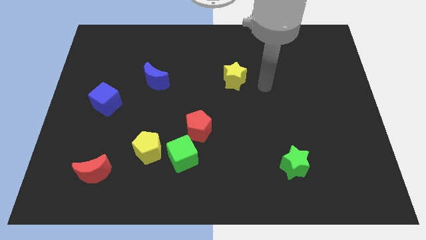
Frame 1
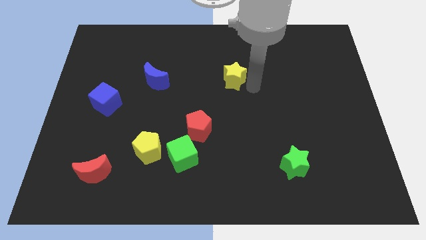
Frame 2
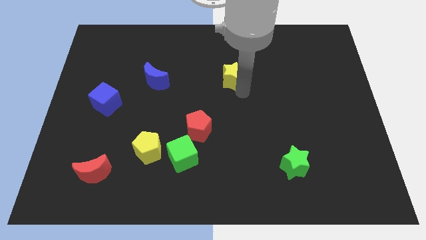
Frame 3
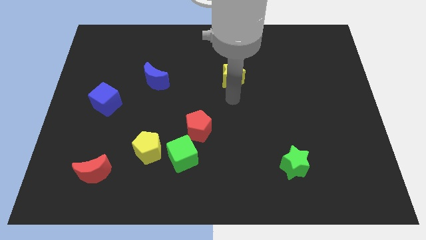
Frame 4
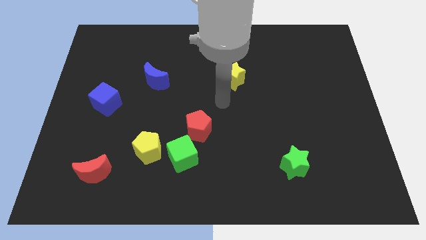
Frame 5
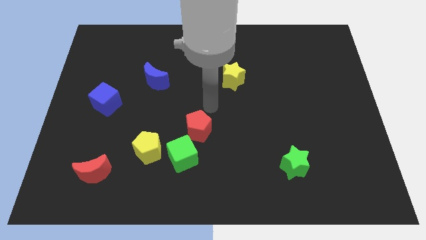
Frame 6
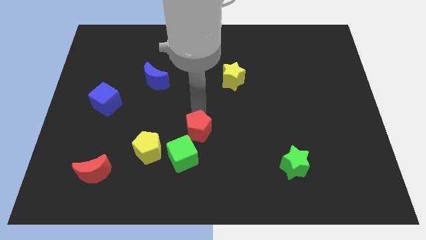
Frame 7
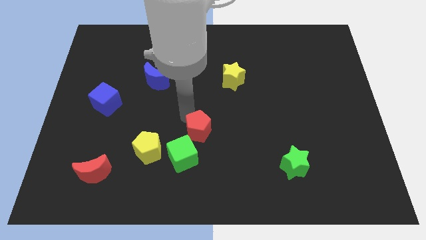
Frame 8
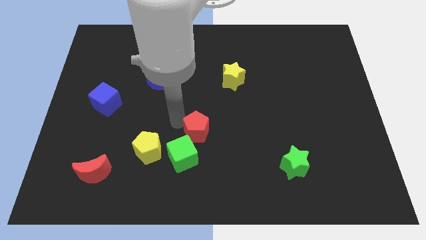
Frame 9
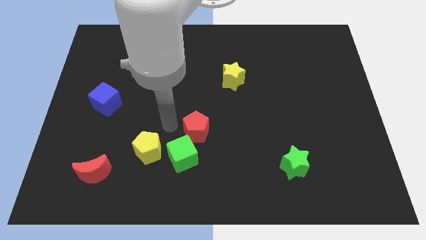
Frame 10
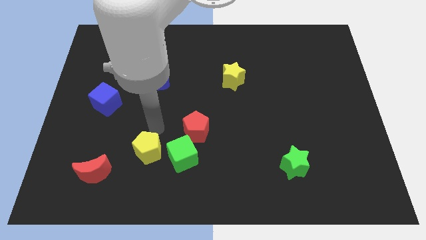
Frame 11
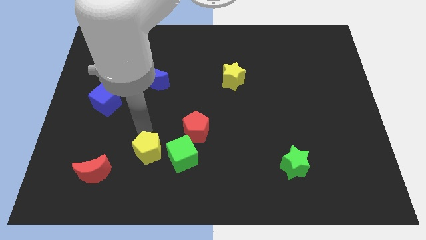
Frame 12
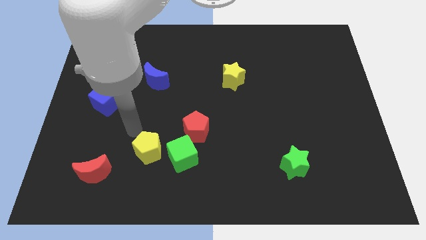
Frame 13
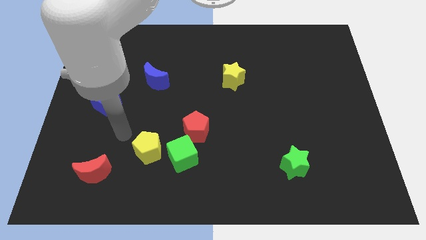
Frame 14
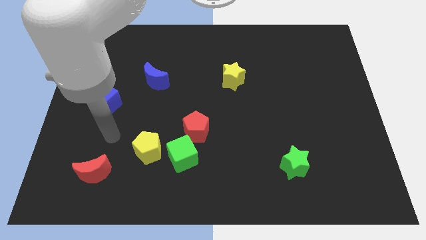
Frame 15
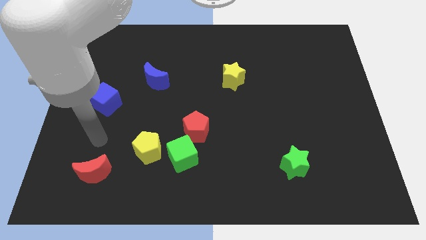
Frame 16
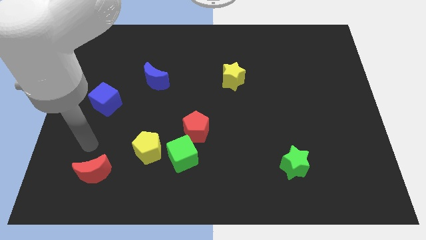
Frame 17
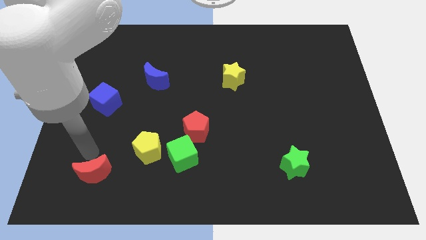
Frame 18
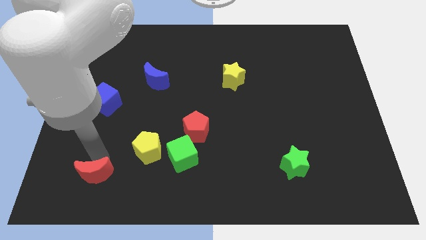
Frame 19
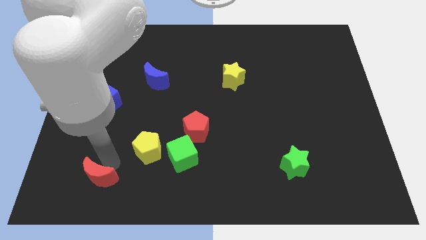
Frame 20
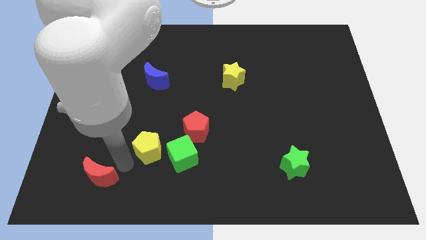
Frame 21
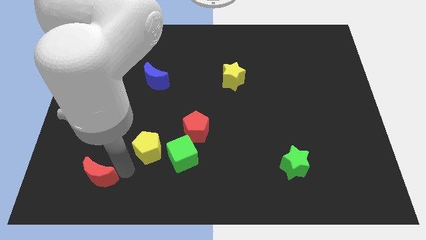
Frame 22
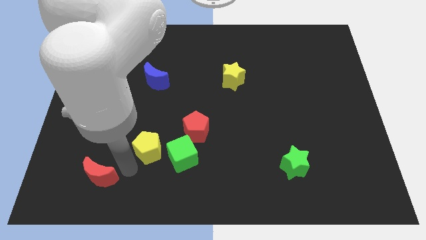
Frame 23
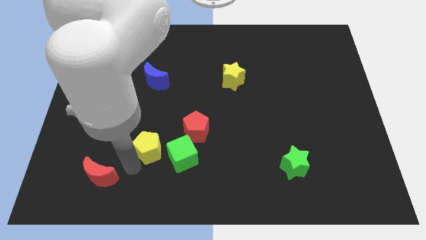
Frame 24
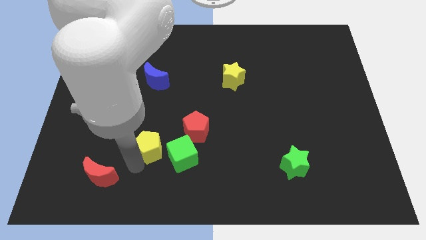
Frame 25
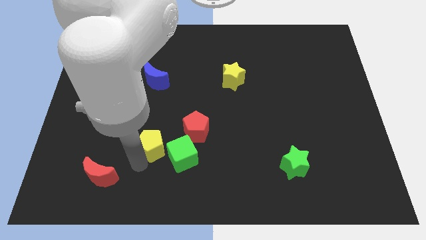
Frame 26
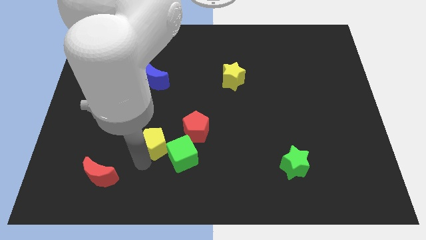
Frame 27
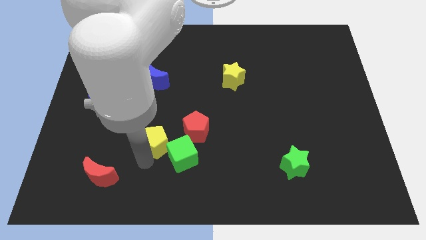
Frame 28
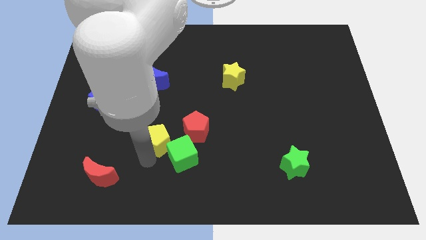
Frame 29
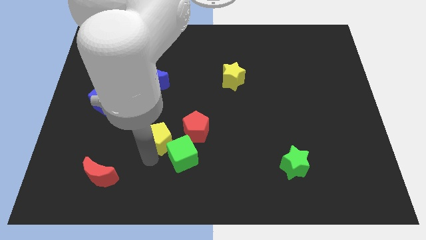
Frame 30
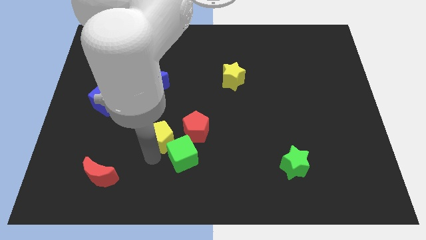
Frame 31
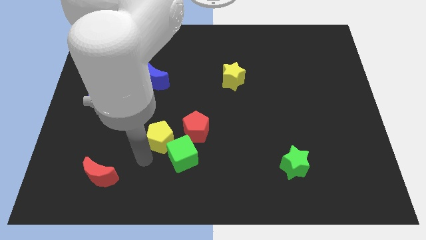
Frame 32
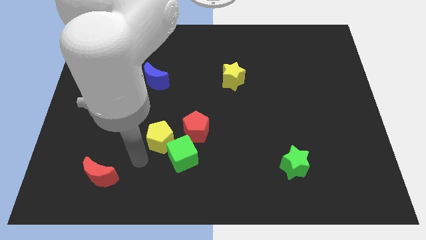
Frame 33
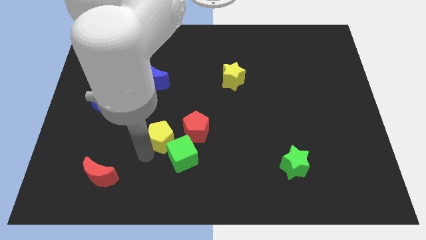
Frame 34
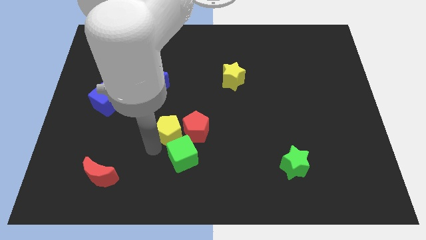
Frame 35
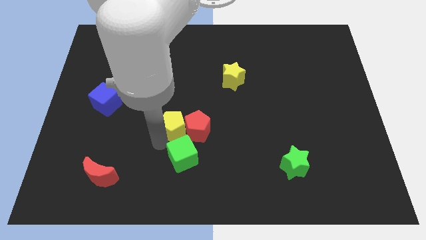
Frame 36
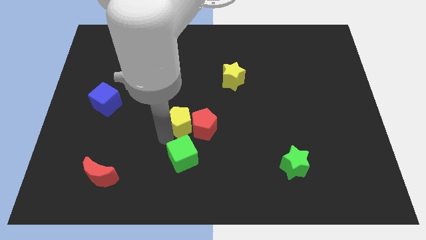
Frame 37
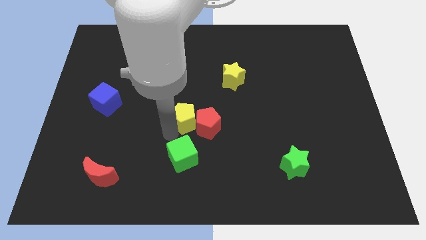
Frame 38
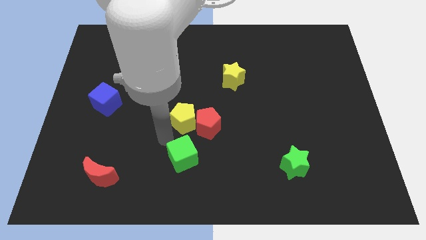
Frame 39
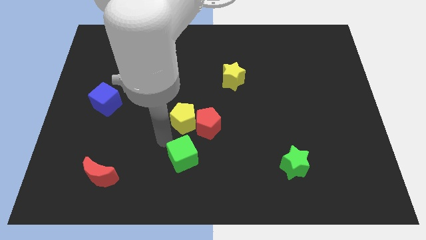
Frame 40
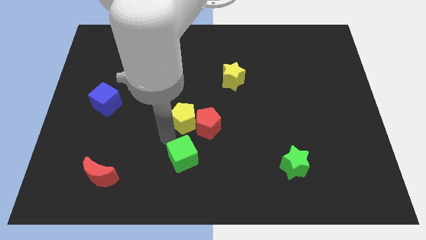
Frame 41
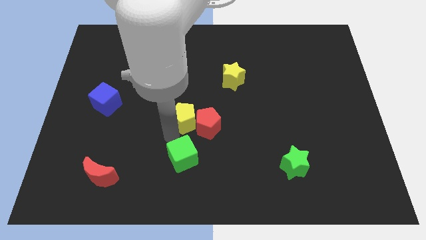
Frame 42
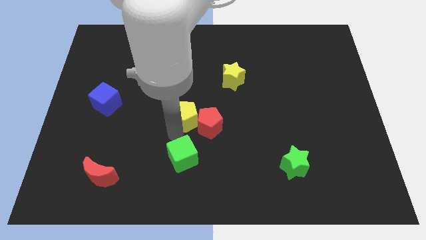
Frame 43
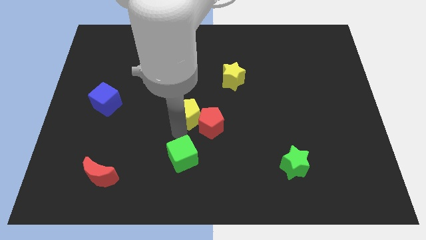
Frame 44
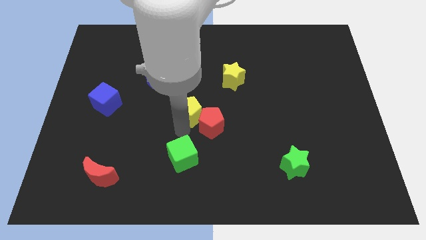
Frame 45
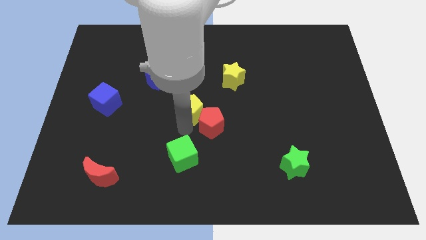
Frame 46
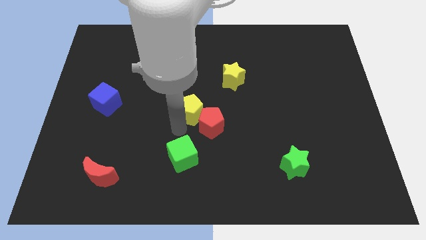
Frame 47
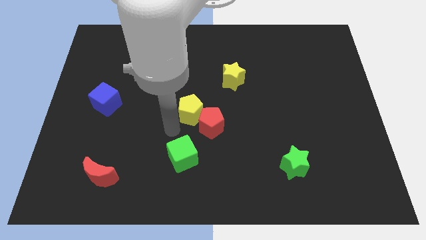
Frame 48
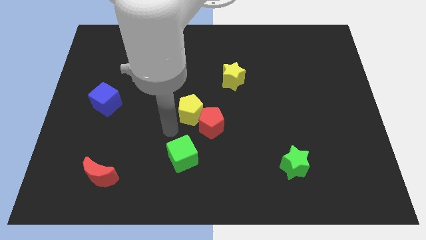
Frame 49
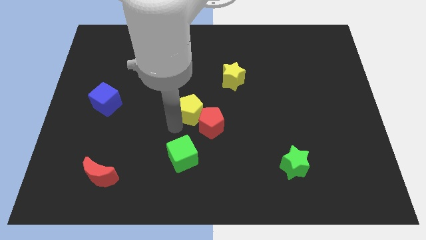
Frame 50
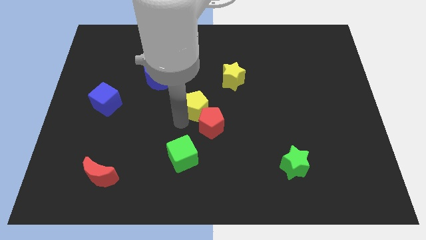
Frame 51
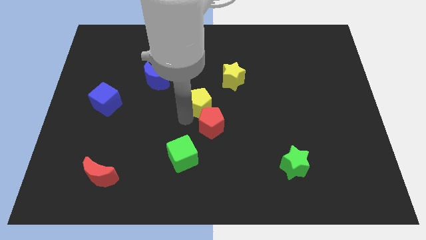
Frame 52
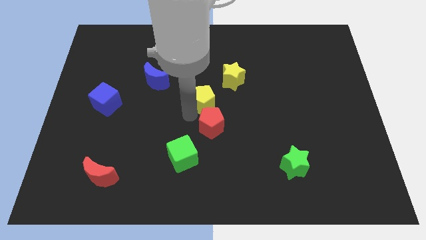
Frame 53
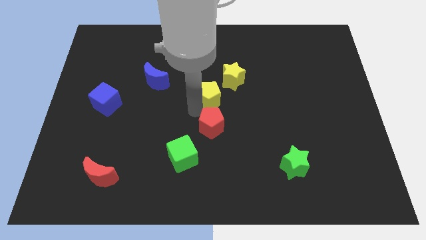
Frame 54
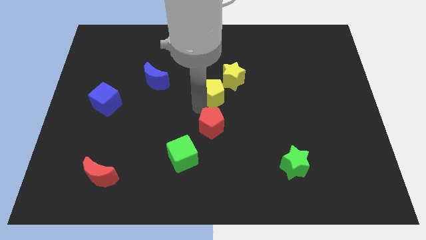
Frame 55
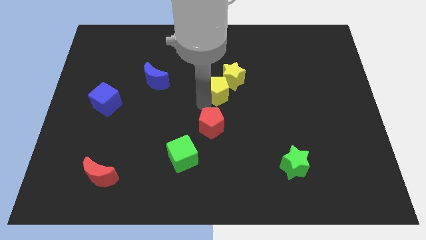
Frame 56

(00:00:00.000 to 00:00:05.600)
move the yellow pentagon towards the yellow star

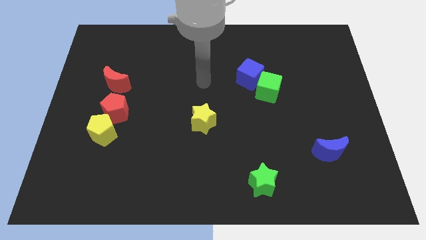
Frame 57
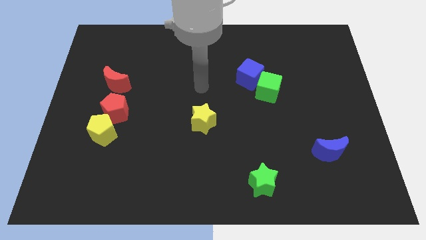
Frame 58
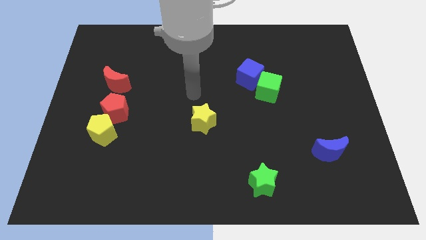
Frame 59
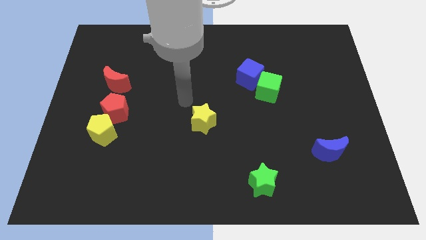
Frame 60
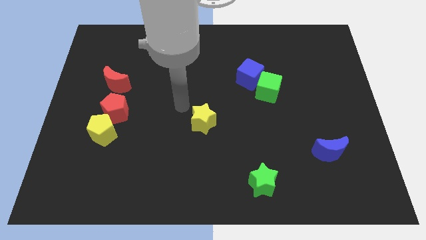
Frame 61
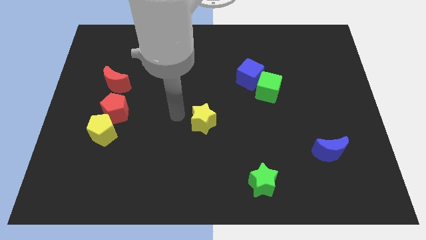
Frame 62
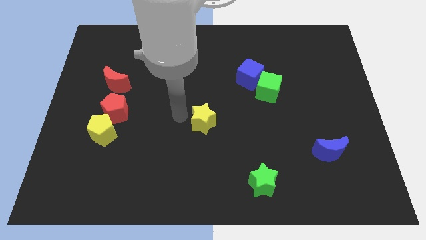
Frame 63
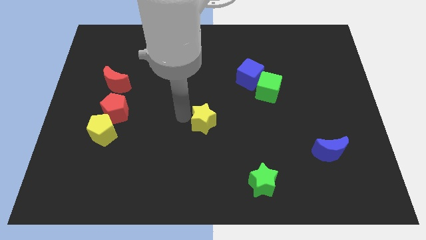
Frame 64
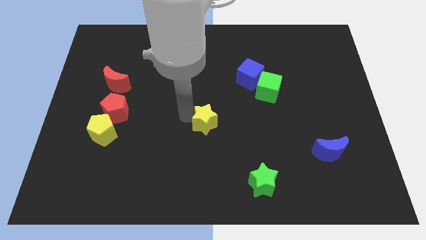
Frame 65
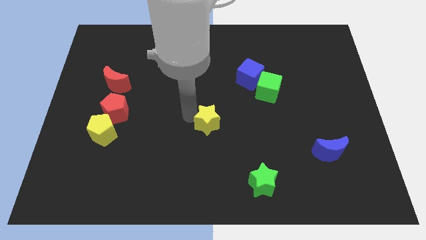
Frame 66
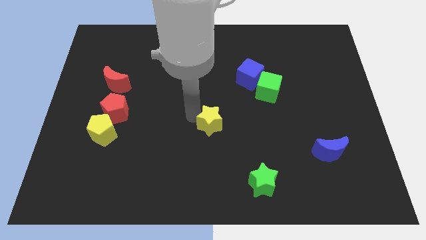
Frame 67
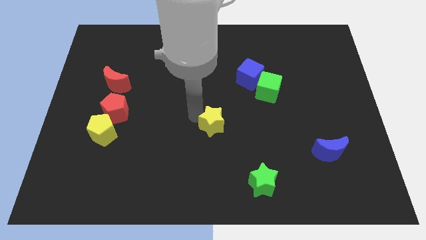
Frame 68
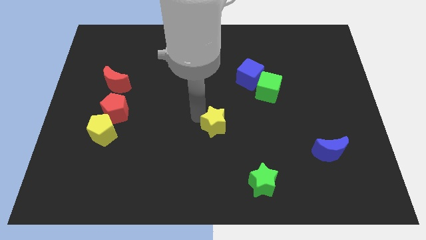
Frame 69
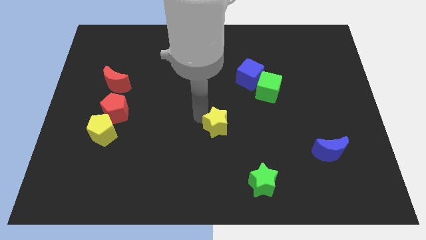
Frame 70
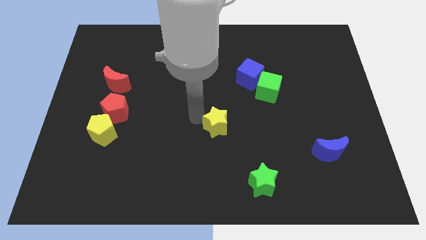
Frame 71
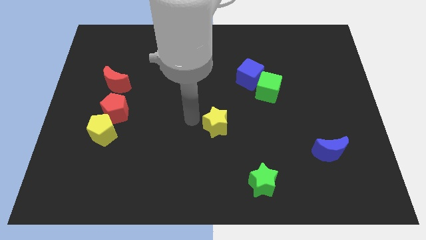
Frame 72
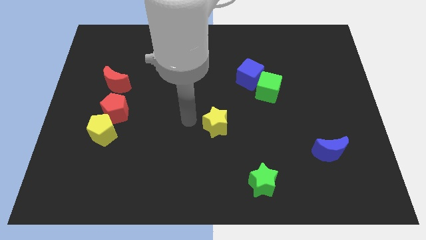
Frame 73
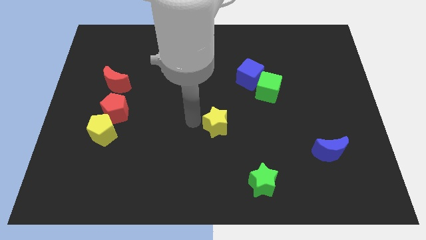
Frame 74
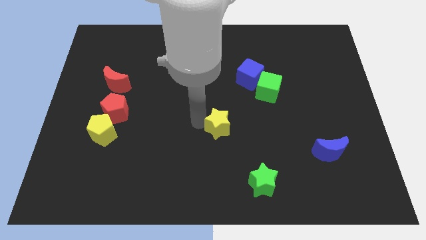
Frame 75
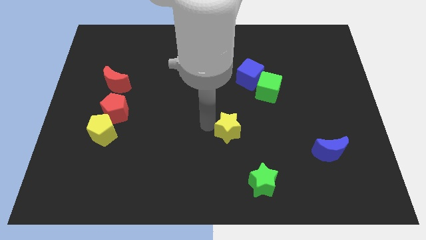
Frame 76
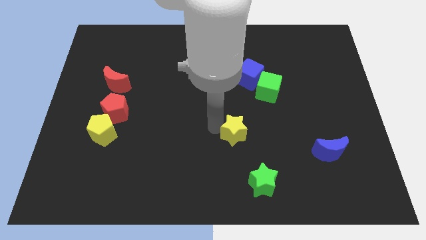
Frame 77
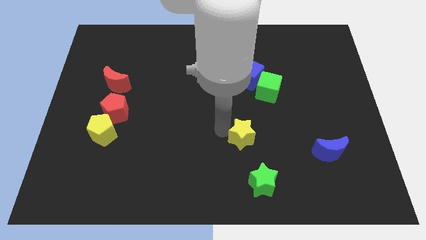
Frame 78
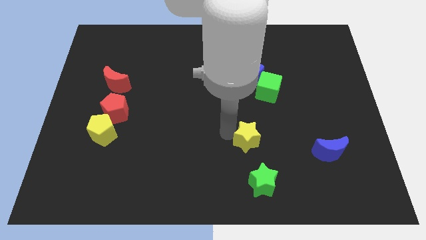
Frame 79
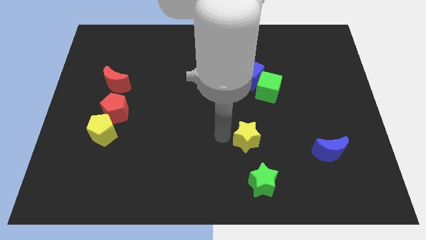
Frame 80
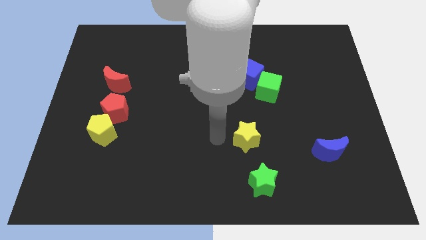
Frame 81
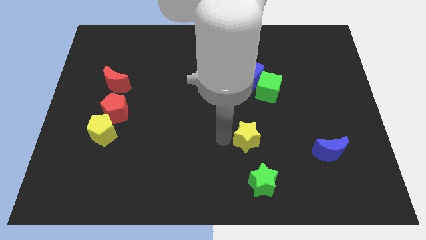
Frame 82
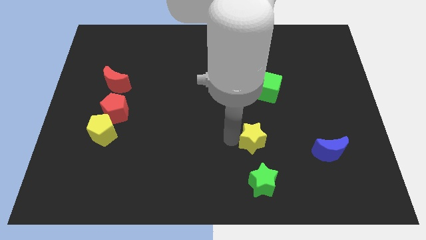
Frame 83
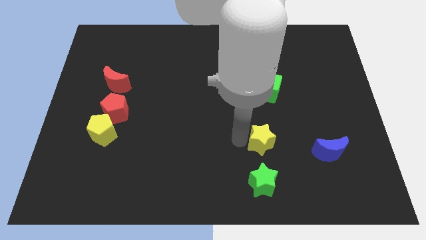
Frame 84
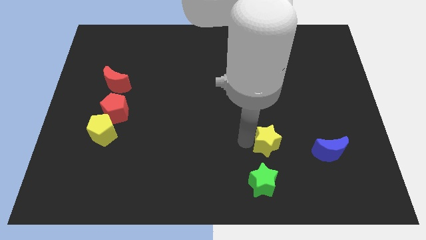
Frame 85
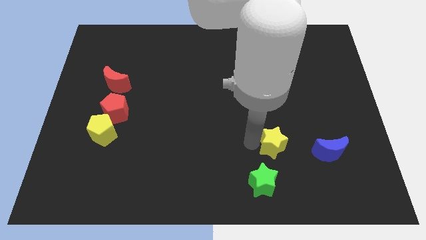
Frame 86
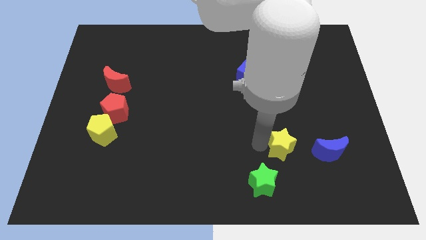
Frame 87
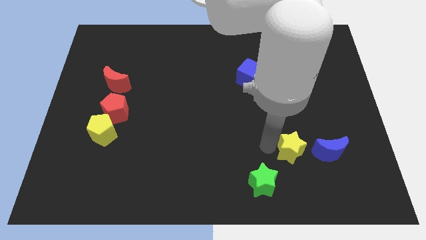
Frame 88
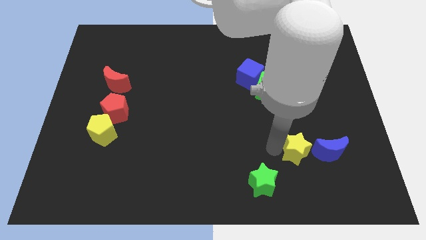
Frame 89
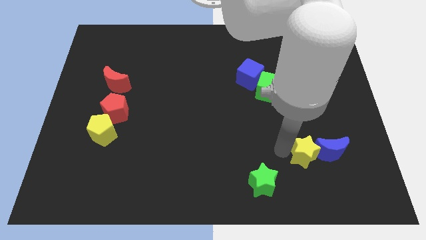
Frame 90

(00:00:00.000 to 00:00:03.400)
push the yellow star next to the blue moon
